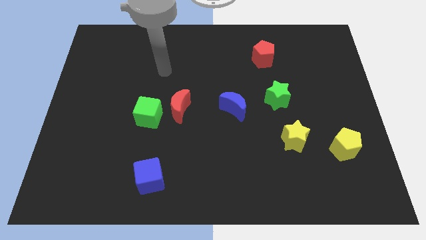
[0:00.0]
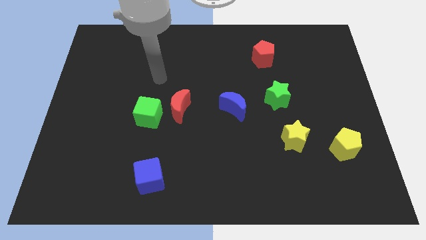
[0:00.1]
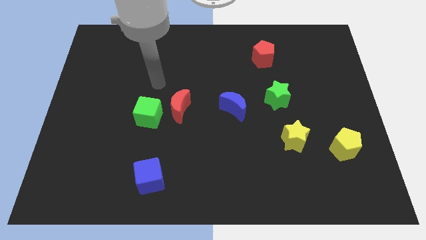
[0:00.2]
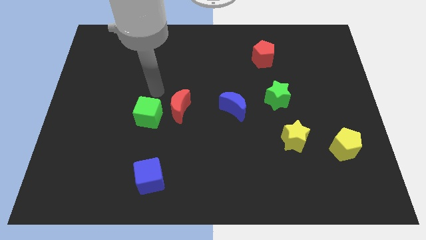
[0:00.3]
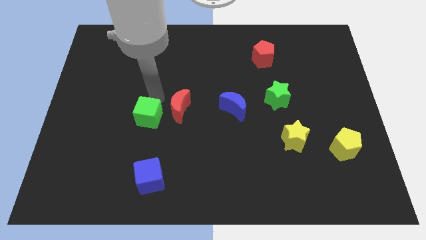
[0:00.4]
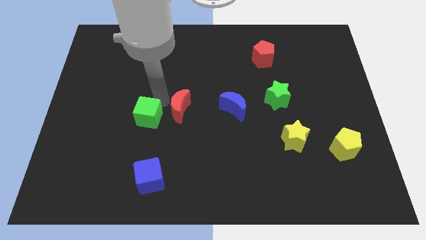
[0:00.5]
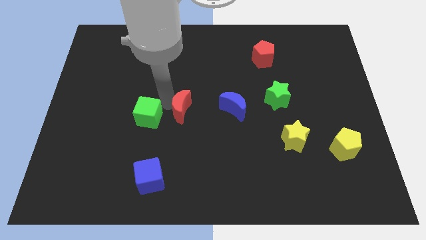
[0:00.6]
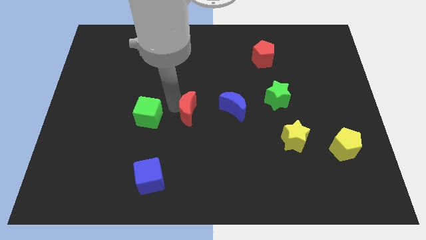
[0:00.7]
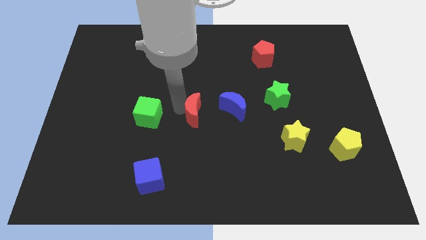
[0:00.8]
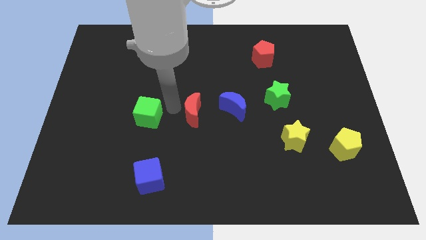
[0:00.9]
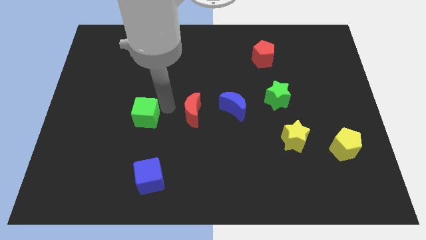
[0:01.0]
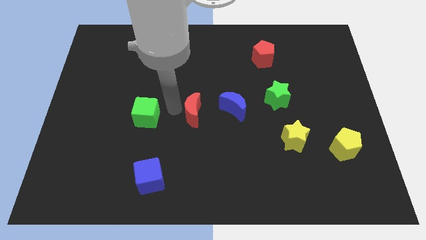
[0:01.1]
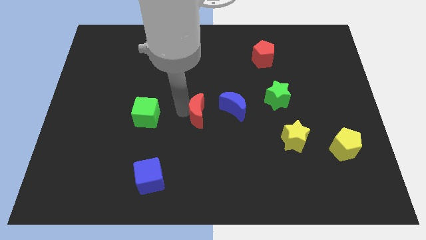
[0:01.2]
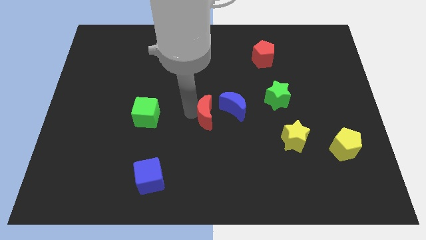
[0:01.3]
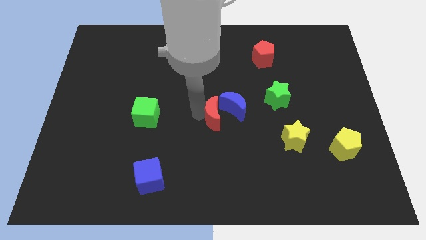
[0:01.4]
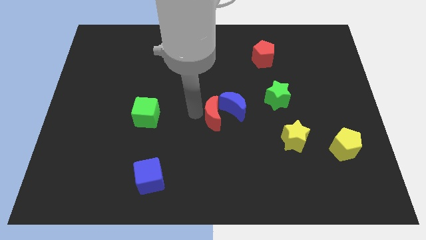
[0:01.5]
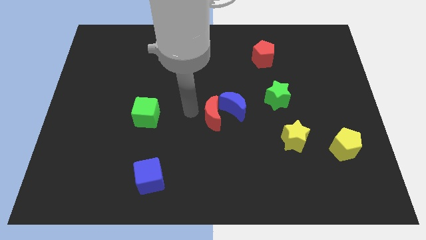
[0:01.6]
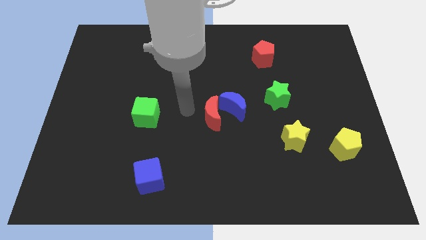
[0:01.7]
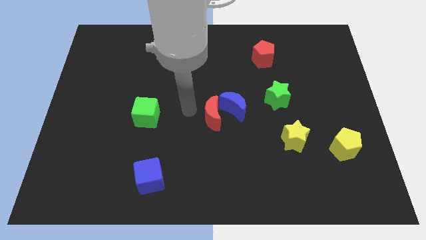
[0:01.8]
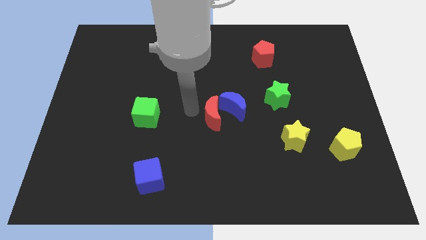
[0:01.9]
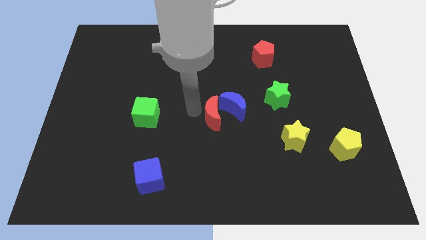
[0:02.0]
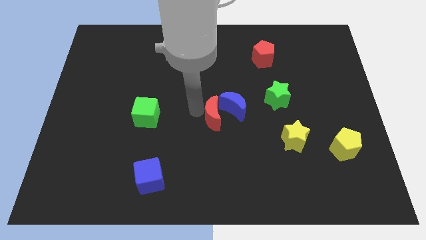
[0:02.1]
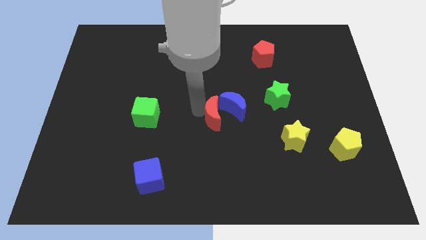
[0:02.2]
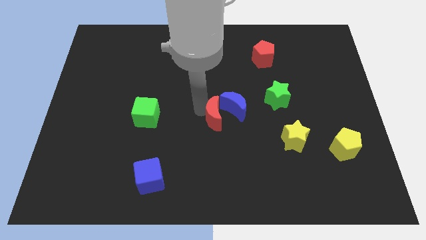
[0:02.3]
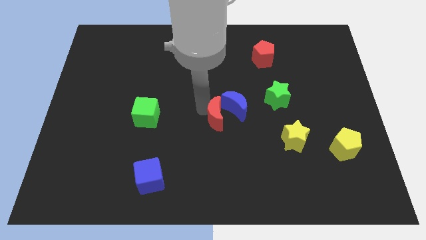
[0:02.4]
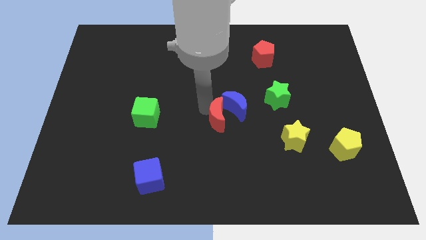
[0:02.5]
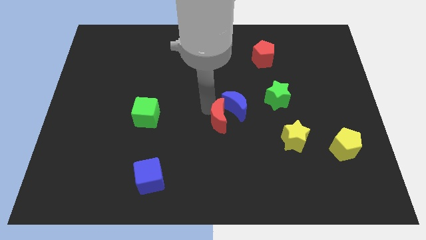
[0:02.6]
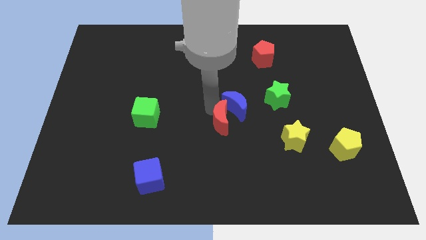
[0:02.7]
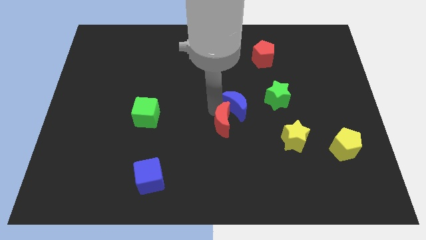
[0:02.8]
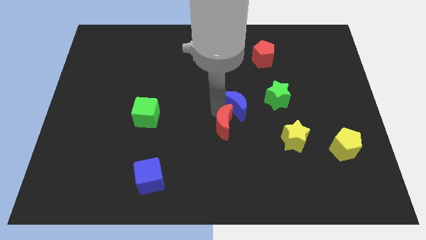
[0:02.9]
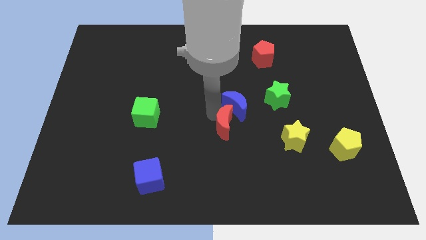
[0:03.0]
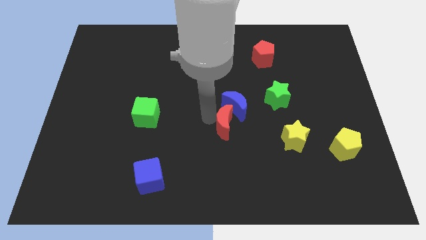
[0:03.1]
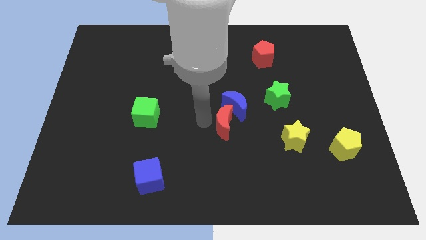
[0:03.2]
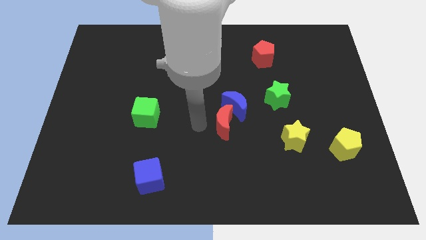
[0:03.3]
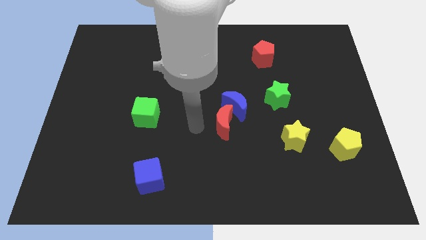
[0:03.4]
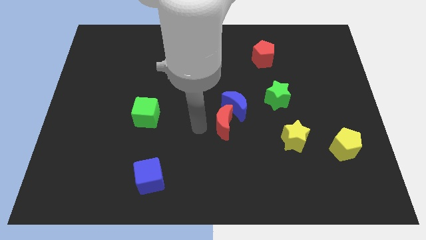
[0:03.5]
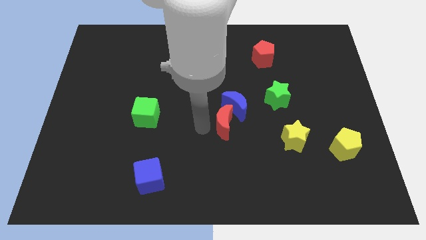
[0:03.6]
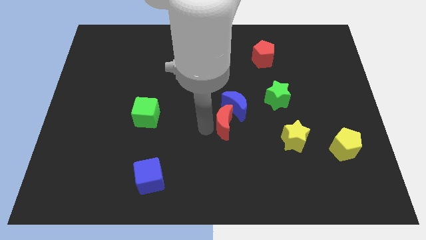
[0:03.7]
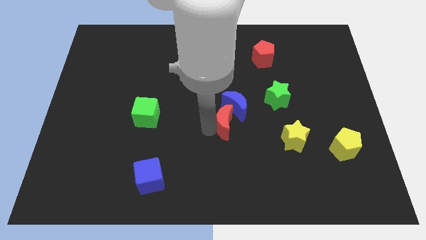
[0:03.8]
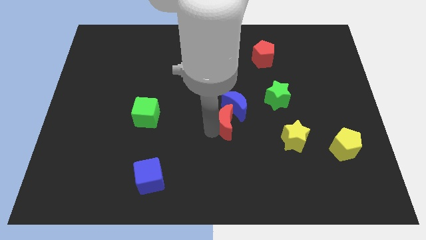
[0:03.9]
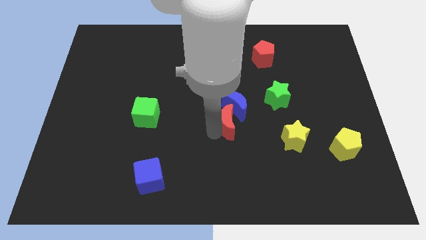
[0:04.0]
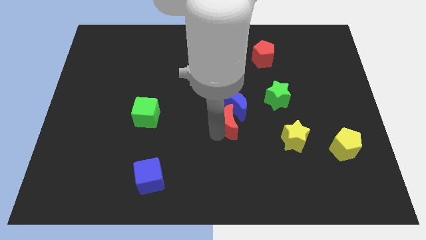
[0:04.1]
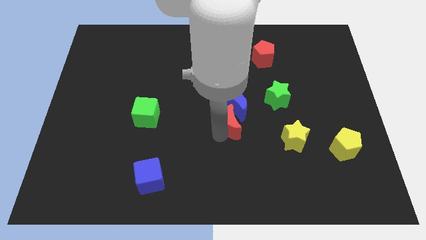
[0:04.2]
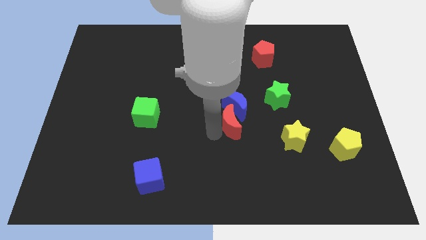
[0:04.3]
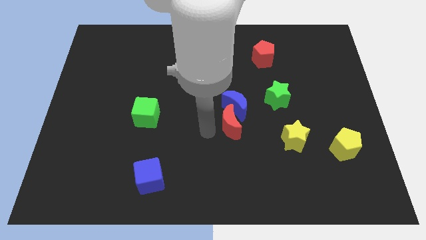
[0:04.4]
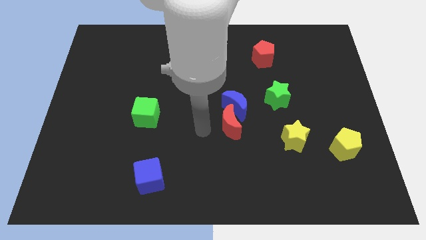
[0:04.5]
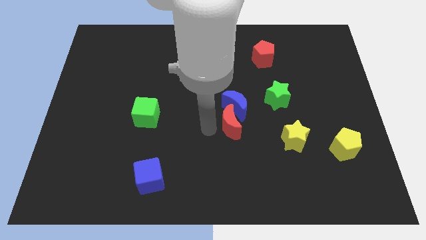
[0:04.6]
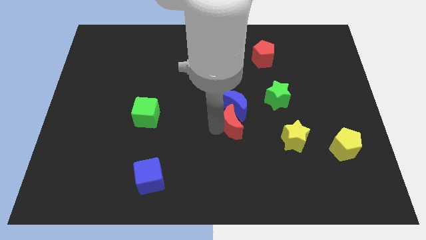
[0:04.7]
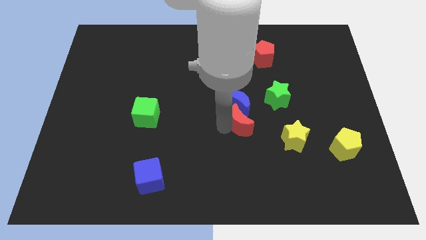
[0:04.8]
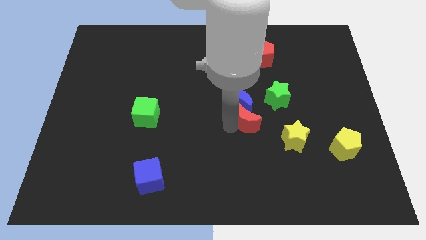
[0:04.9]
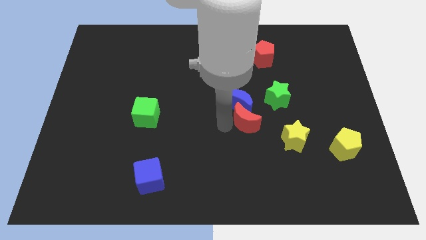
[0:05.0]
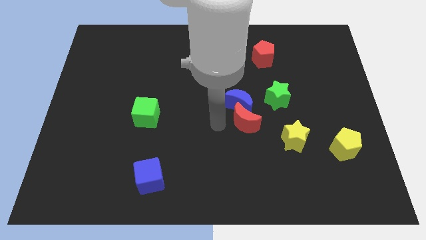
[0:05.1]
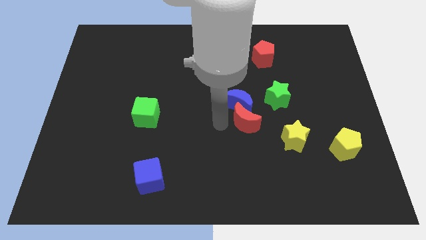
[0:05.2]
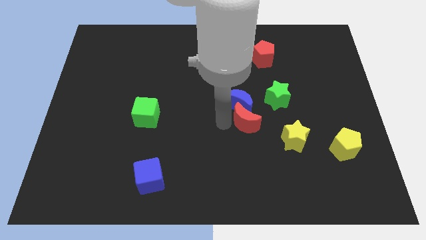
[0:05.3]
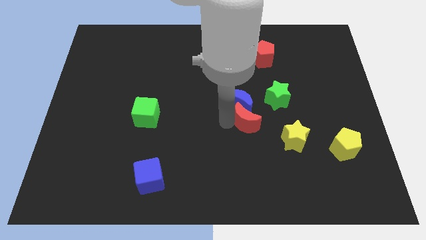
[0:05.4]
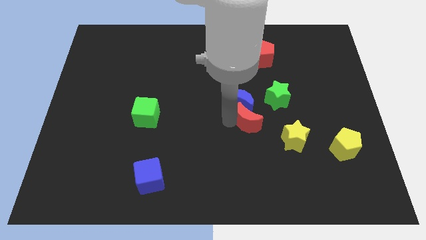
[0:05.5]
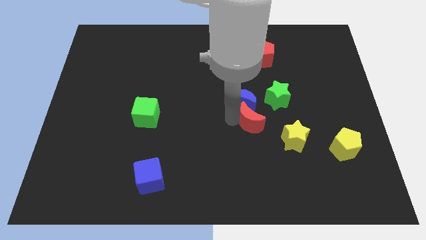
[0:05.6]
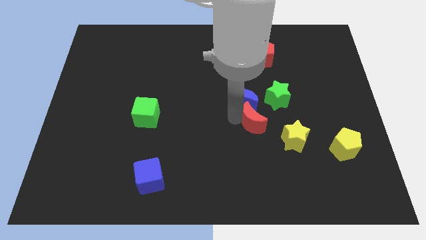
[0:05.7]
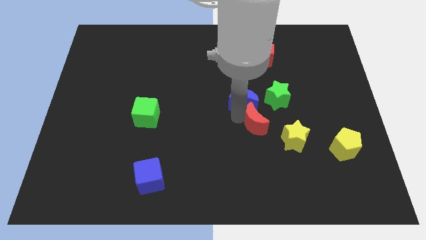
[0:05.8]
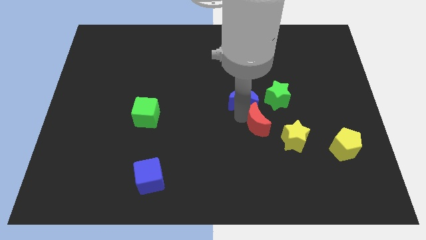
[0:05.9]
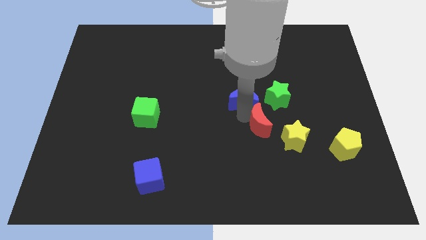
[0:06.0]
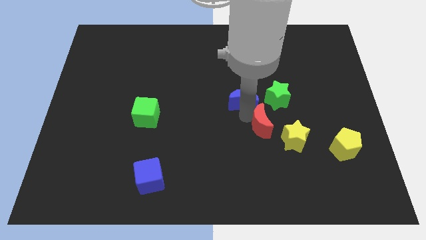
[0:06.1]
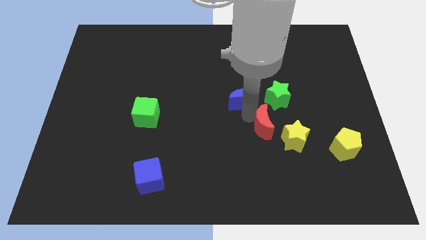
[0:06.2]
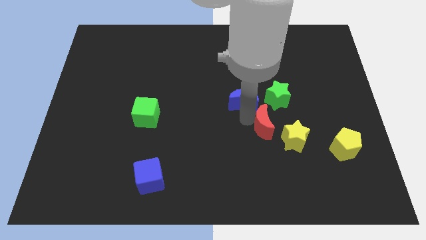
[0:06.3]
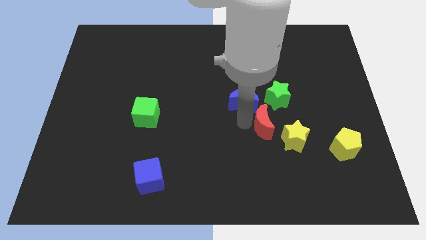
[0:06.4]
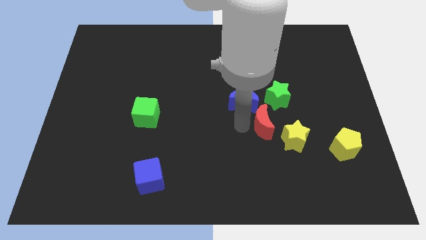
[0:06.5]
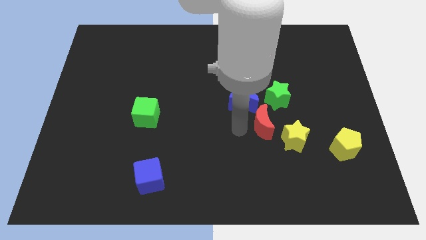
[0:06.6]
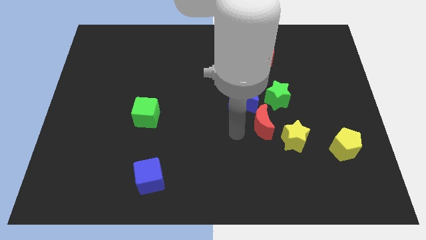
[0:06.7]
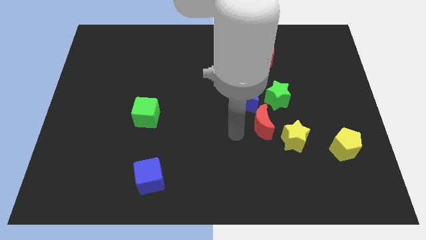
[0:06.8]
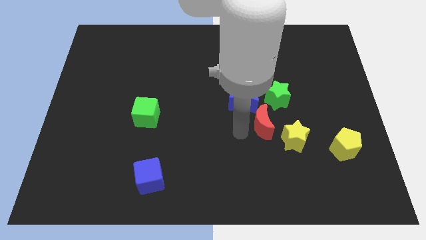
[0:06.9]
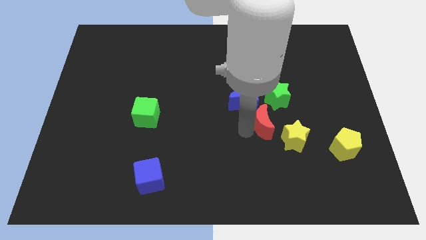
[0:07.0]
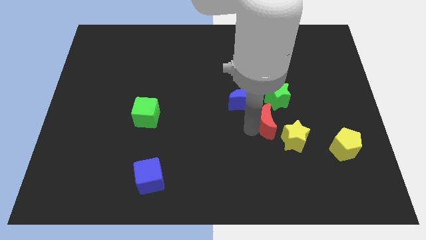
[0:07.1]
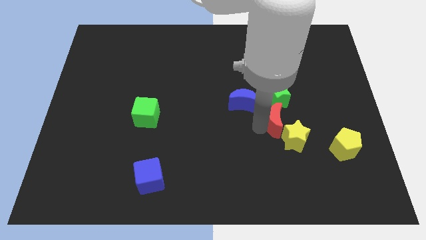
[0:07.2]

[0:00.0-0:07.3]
push the red moon to the right

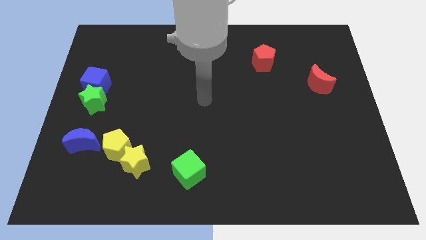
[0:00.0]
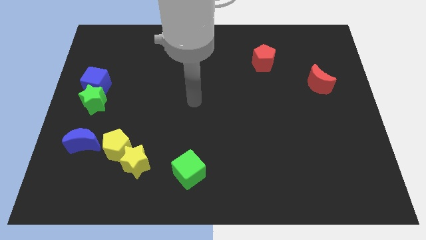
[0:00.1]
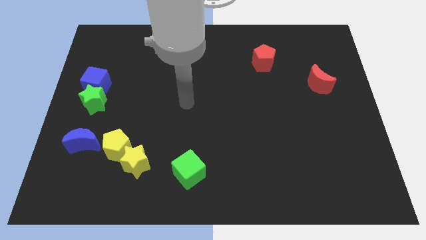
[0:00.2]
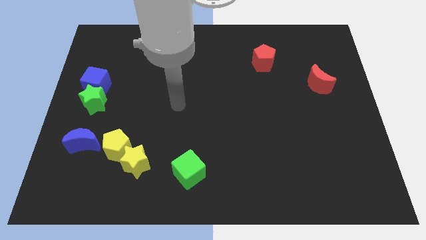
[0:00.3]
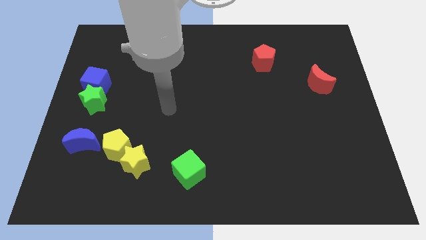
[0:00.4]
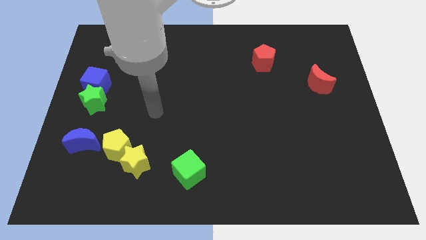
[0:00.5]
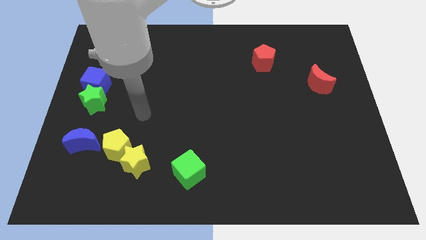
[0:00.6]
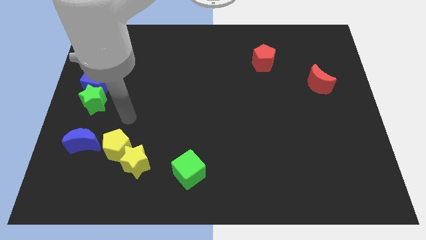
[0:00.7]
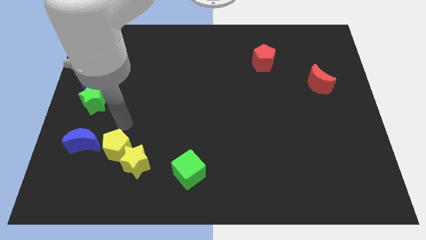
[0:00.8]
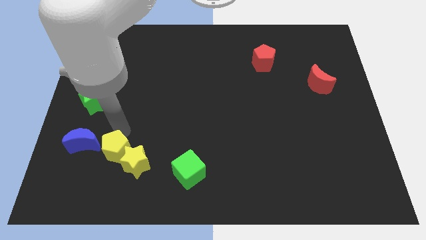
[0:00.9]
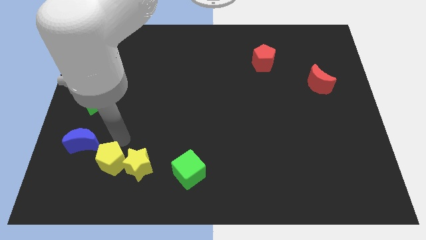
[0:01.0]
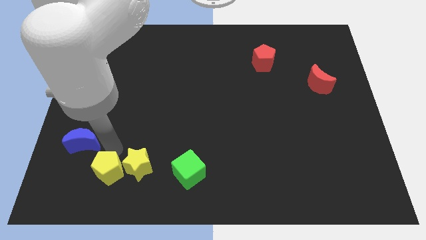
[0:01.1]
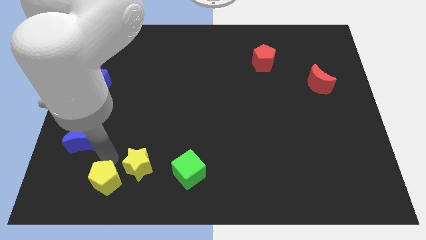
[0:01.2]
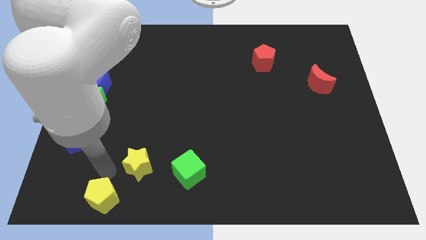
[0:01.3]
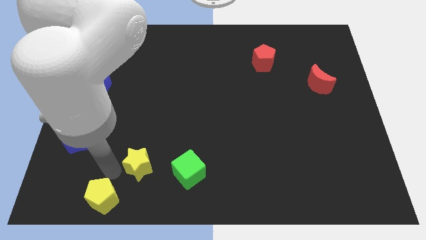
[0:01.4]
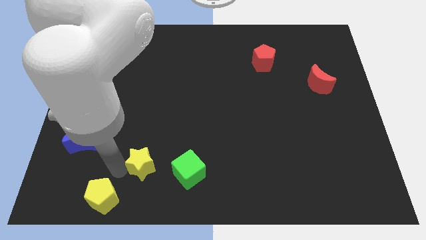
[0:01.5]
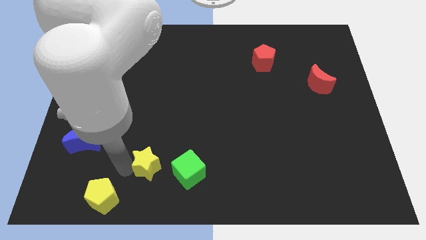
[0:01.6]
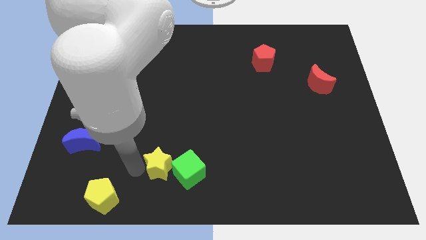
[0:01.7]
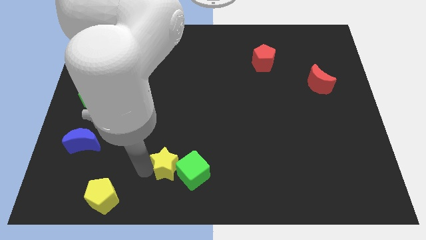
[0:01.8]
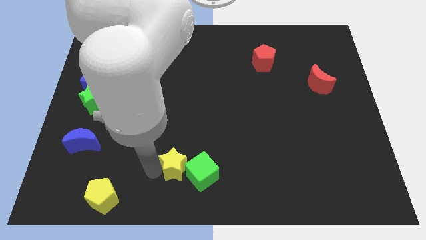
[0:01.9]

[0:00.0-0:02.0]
push the yellow star somewhat to the right
